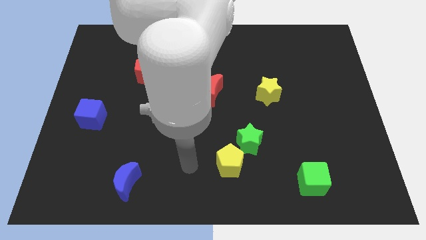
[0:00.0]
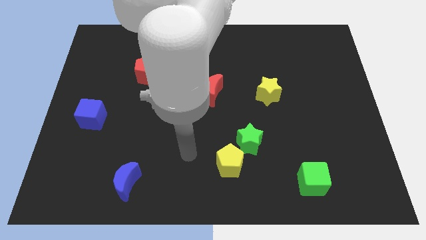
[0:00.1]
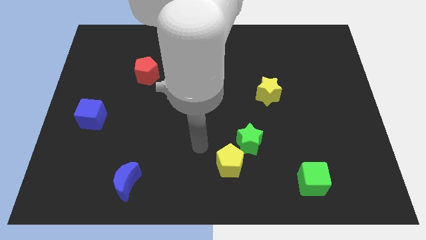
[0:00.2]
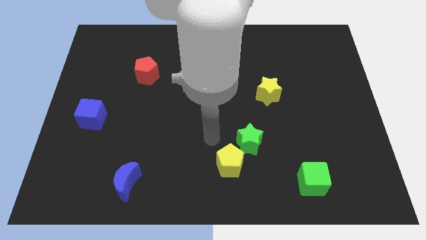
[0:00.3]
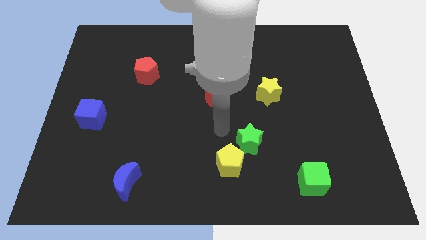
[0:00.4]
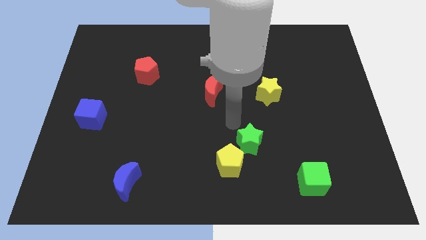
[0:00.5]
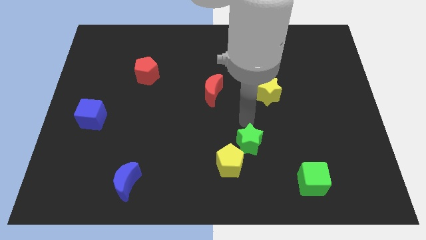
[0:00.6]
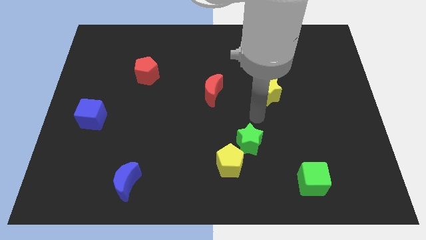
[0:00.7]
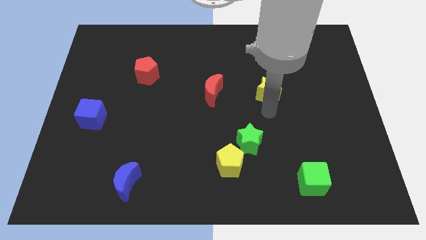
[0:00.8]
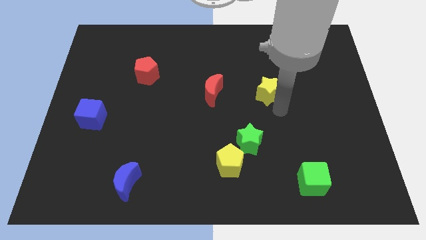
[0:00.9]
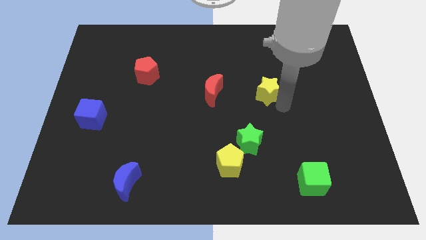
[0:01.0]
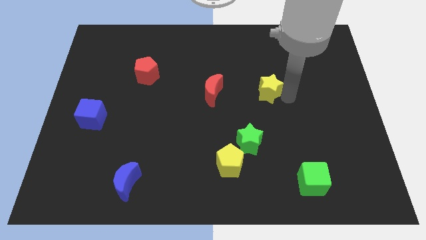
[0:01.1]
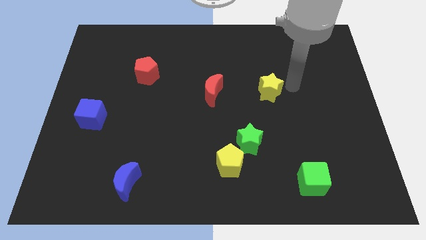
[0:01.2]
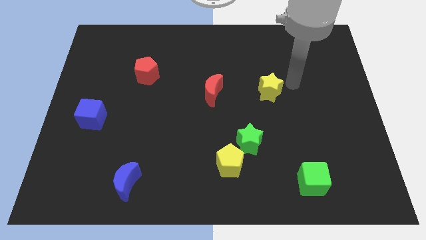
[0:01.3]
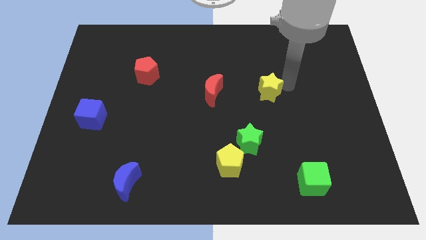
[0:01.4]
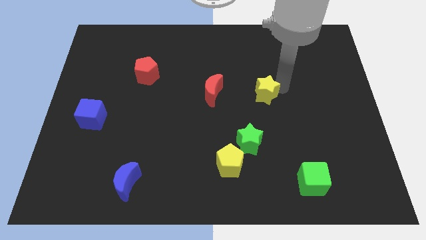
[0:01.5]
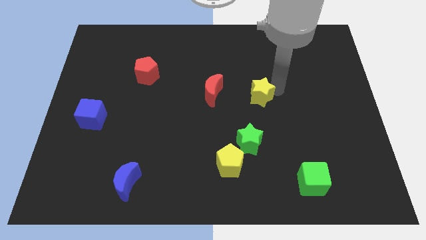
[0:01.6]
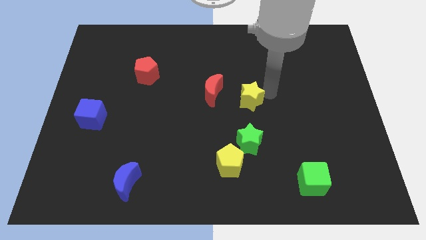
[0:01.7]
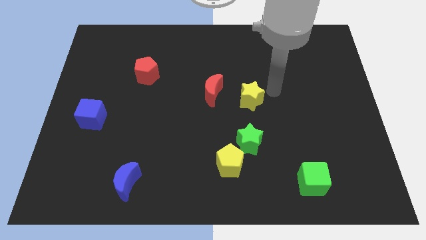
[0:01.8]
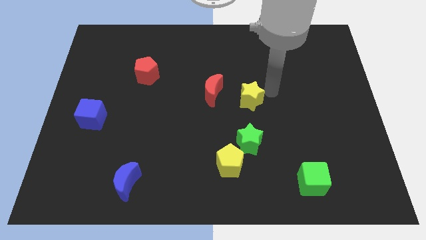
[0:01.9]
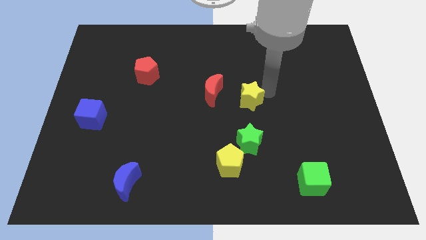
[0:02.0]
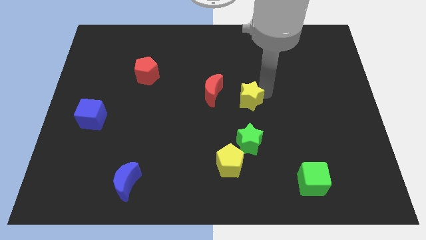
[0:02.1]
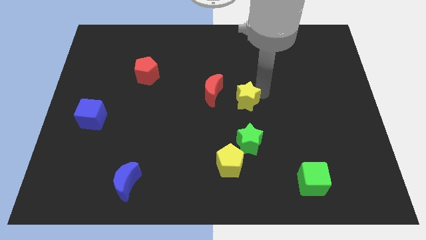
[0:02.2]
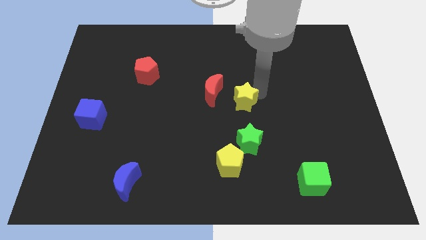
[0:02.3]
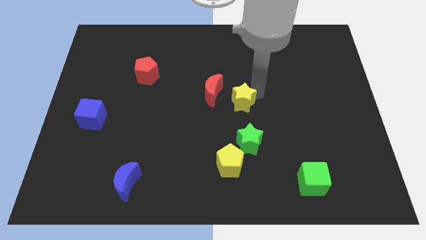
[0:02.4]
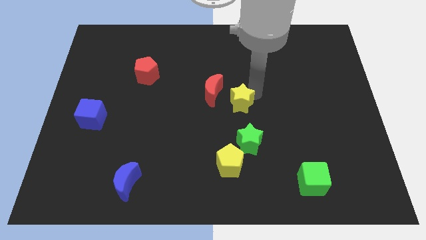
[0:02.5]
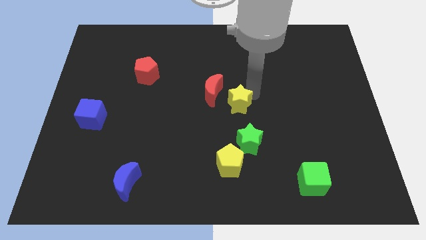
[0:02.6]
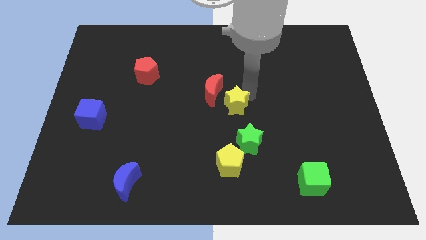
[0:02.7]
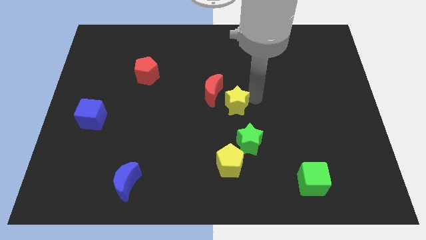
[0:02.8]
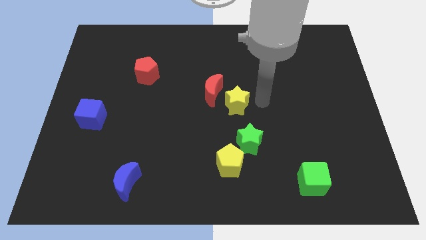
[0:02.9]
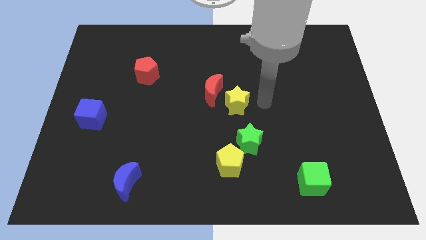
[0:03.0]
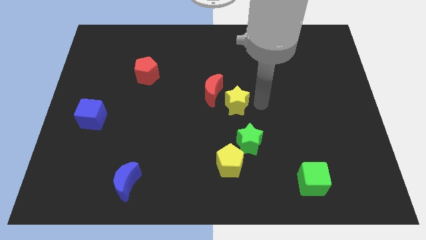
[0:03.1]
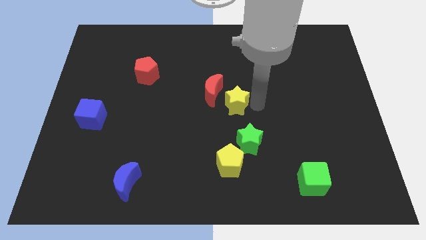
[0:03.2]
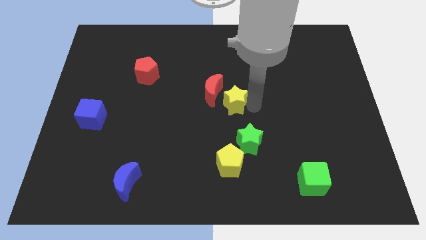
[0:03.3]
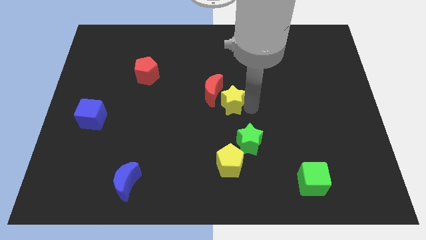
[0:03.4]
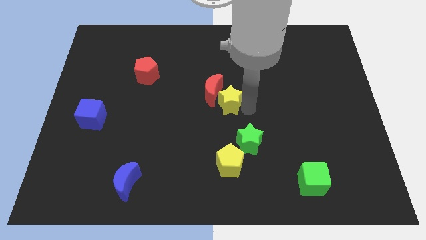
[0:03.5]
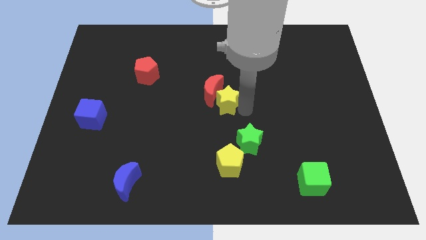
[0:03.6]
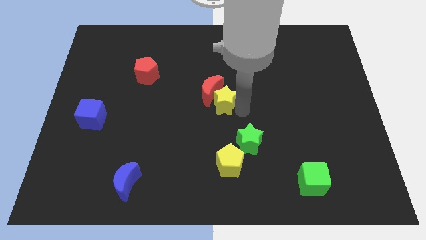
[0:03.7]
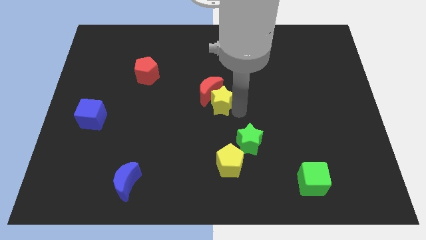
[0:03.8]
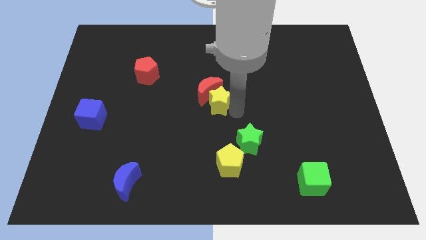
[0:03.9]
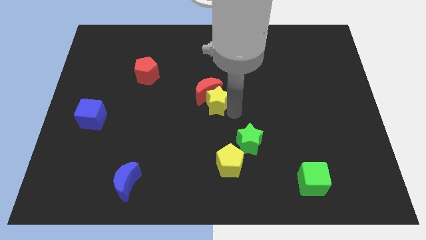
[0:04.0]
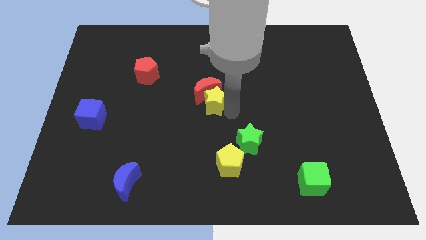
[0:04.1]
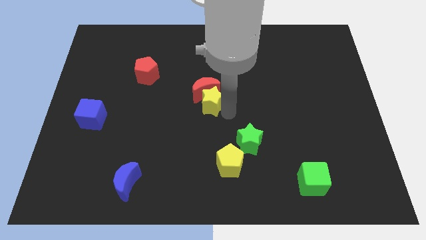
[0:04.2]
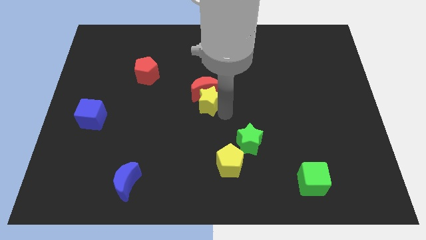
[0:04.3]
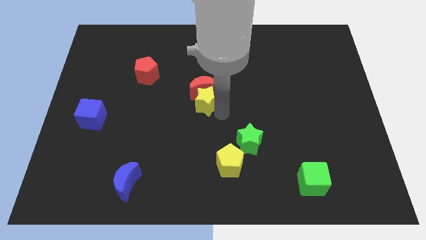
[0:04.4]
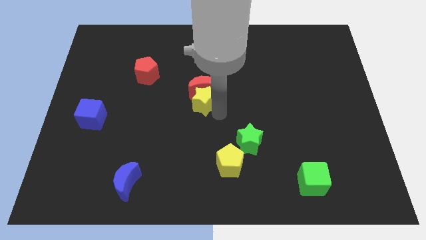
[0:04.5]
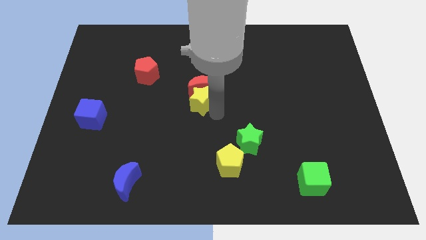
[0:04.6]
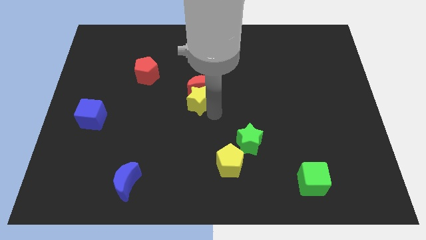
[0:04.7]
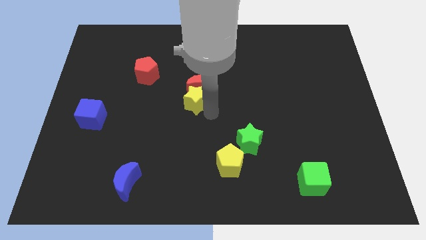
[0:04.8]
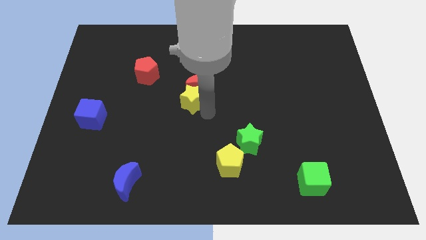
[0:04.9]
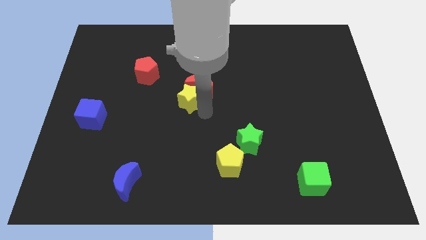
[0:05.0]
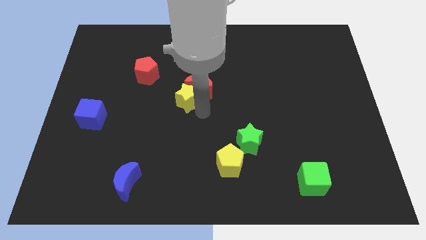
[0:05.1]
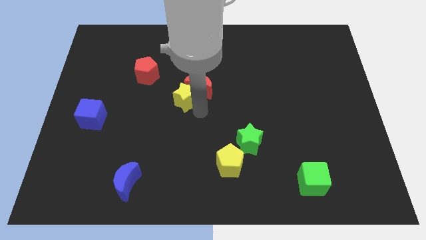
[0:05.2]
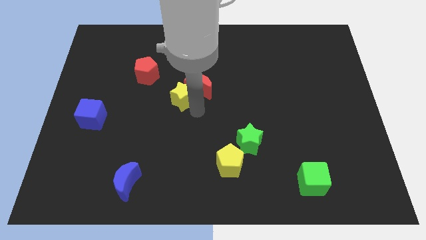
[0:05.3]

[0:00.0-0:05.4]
push the yellow star to the bottom right side of the red pentagon

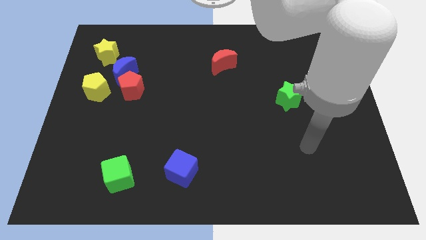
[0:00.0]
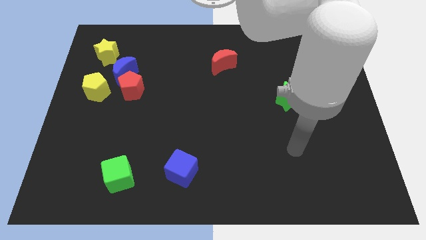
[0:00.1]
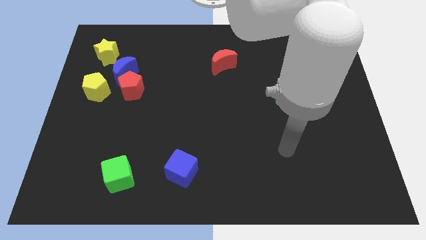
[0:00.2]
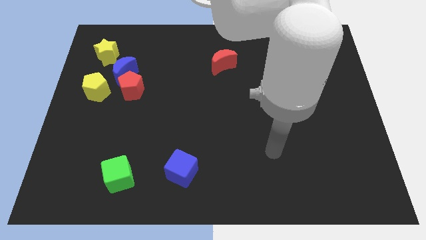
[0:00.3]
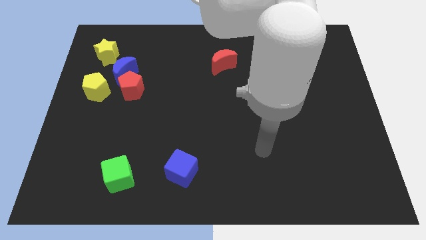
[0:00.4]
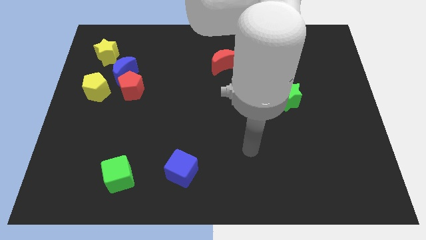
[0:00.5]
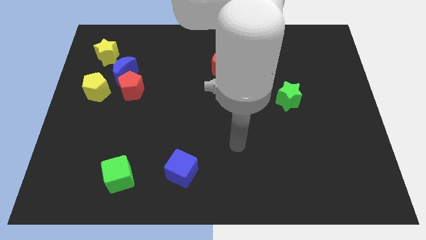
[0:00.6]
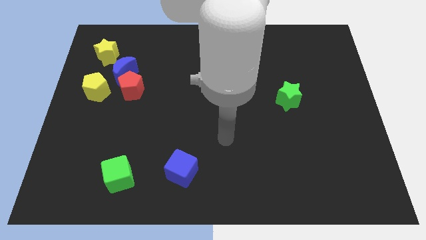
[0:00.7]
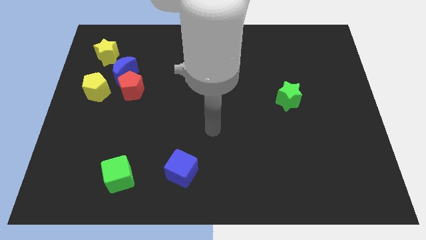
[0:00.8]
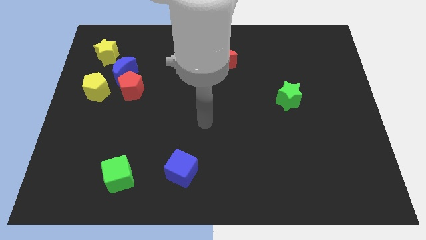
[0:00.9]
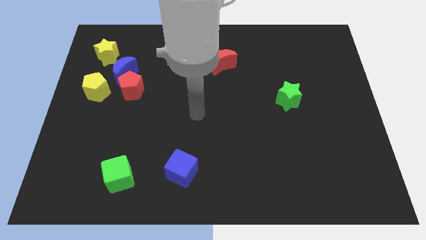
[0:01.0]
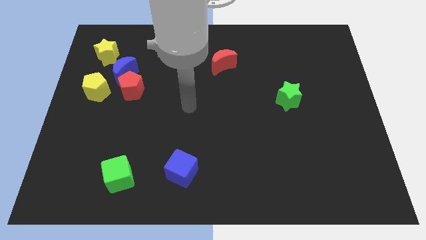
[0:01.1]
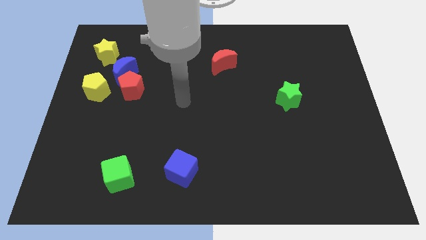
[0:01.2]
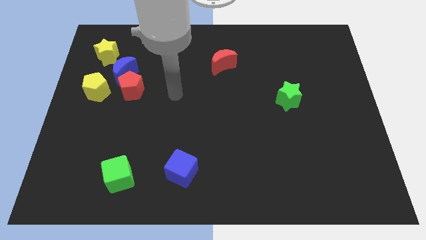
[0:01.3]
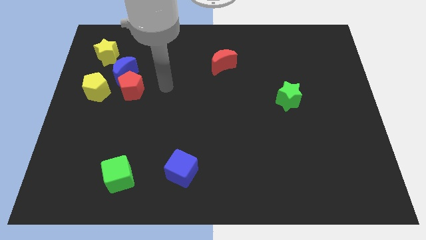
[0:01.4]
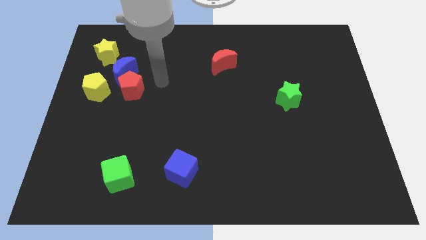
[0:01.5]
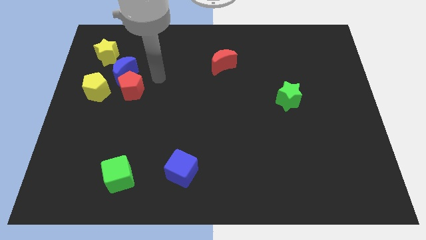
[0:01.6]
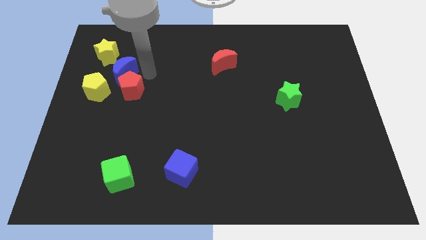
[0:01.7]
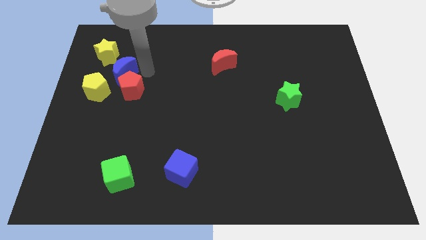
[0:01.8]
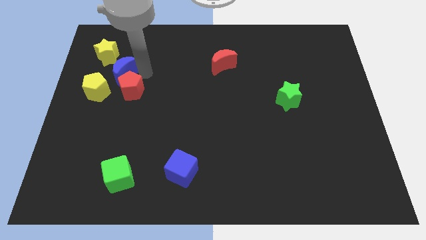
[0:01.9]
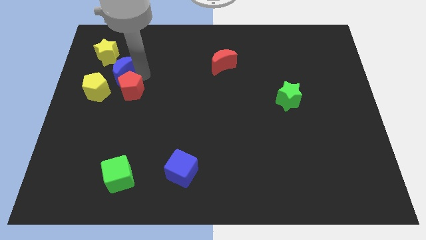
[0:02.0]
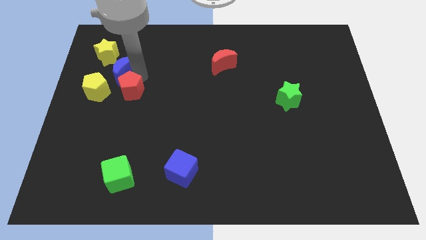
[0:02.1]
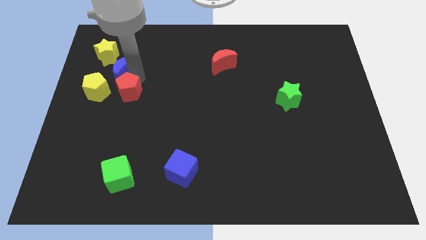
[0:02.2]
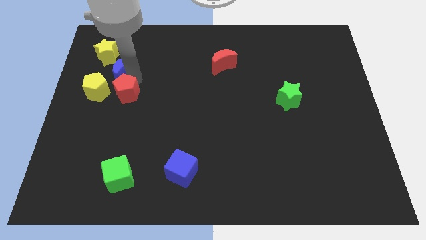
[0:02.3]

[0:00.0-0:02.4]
move the red pentagon to the bottom right side of the yellow pentagon
